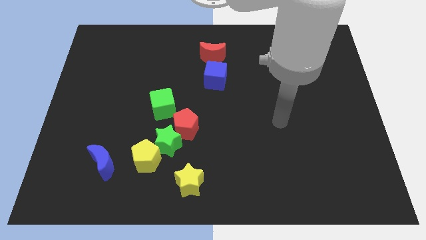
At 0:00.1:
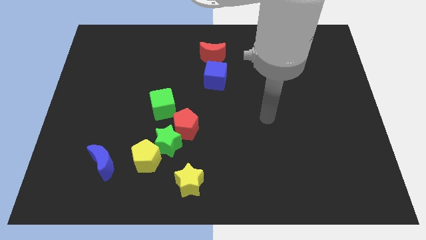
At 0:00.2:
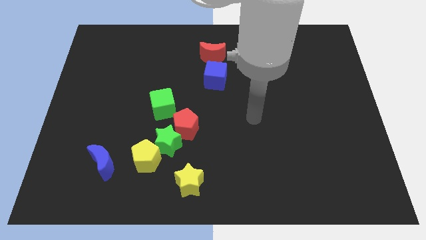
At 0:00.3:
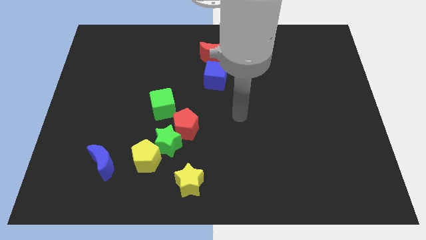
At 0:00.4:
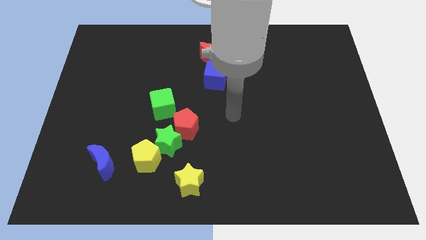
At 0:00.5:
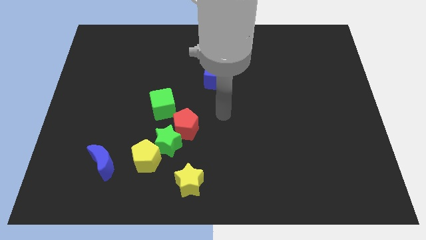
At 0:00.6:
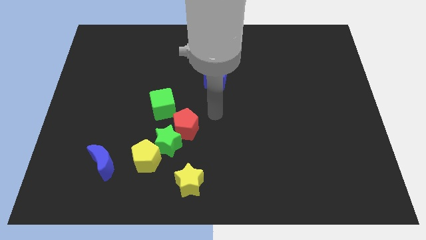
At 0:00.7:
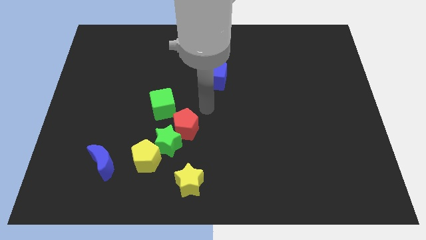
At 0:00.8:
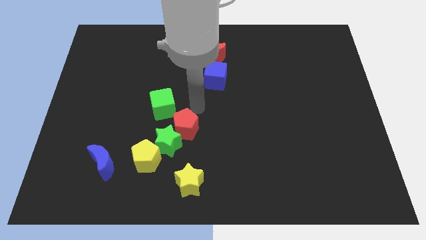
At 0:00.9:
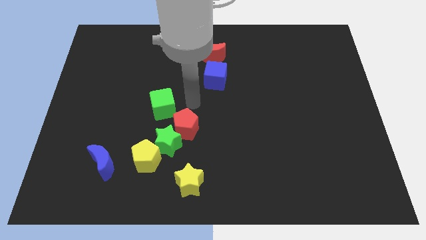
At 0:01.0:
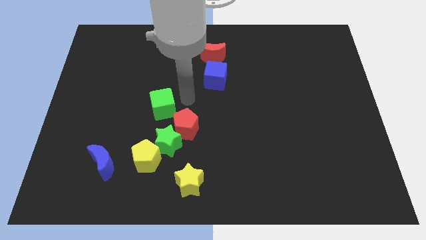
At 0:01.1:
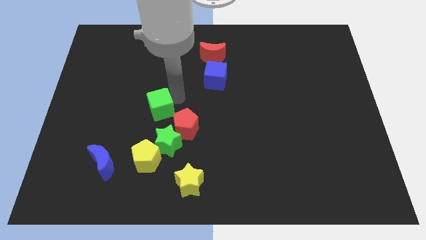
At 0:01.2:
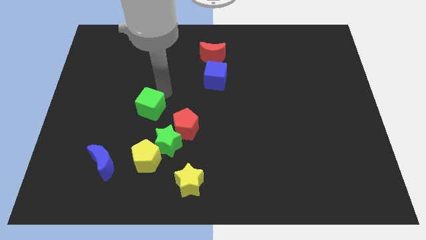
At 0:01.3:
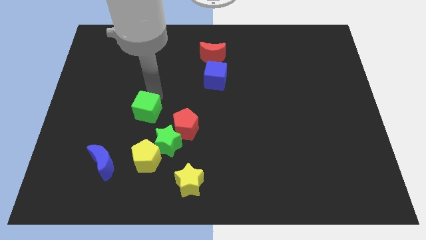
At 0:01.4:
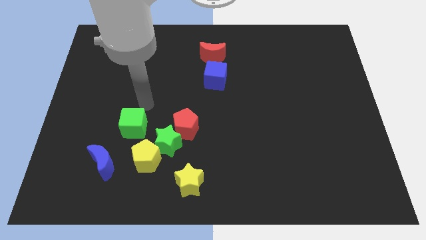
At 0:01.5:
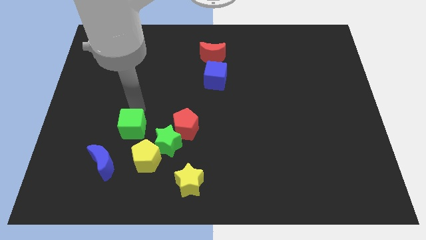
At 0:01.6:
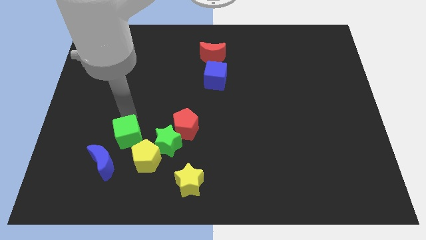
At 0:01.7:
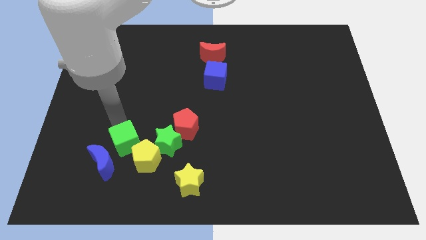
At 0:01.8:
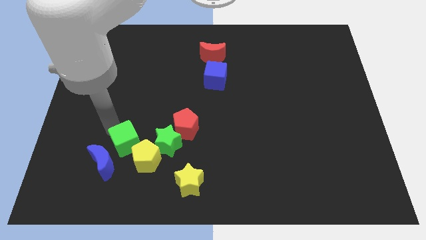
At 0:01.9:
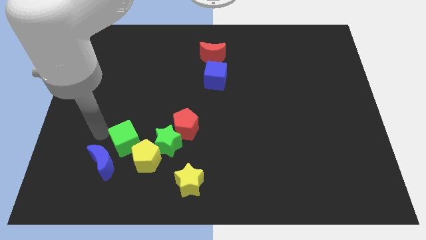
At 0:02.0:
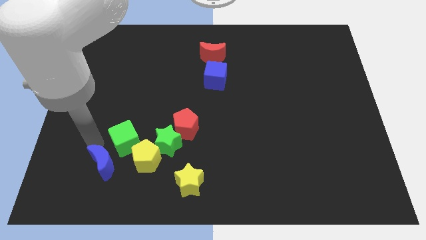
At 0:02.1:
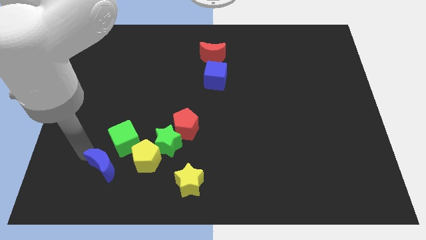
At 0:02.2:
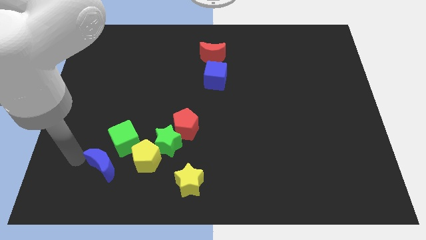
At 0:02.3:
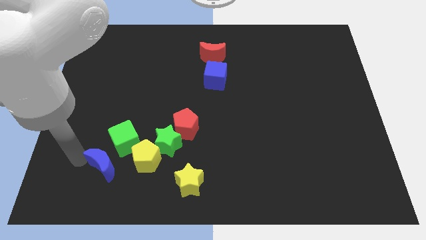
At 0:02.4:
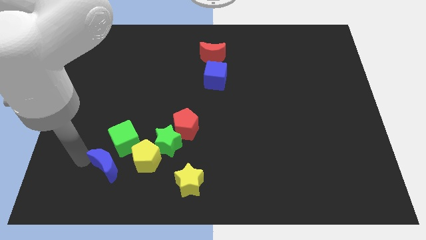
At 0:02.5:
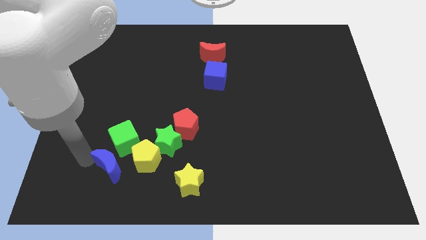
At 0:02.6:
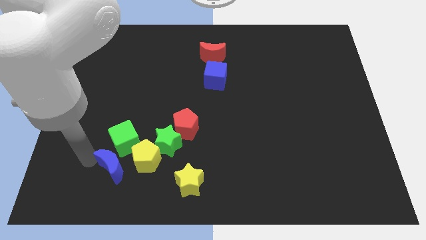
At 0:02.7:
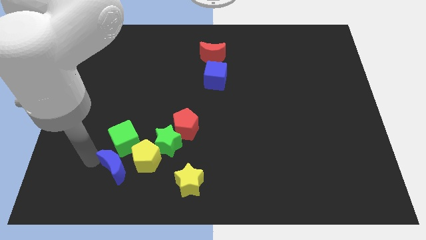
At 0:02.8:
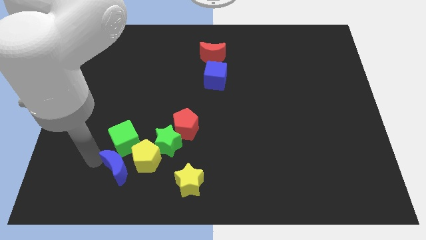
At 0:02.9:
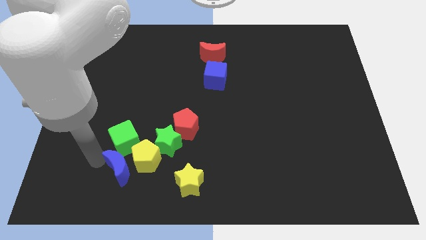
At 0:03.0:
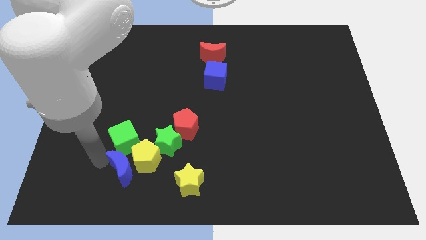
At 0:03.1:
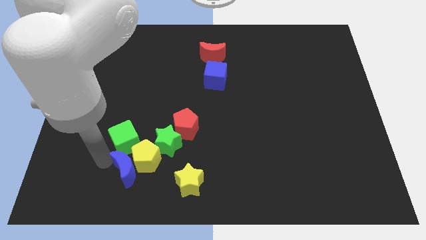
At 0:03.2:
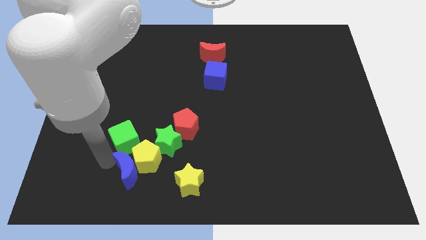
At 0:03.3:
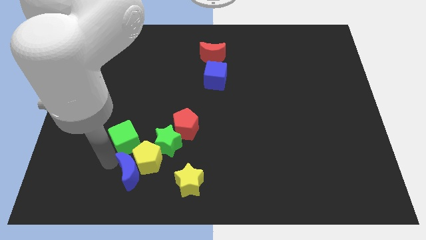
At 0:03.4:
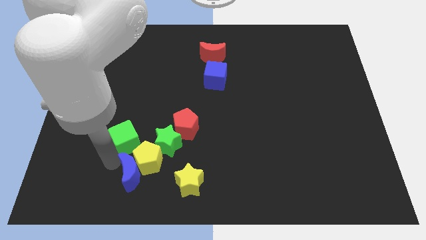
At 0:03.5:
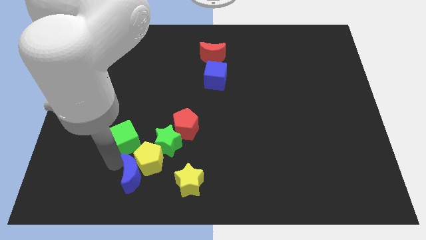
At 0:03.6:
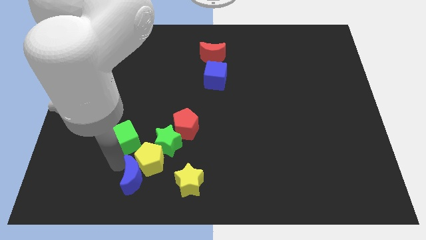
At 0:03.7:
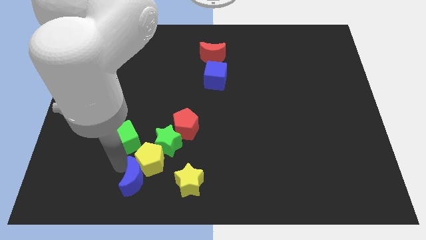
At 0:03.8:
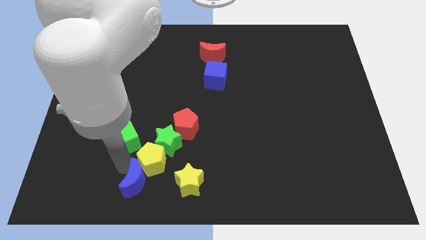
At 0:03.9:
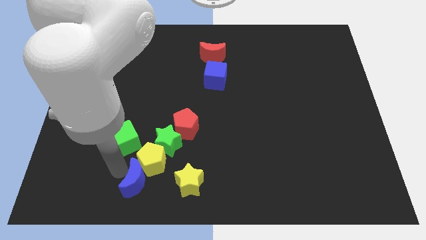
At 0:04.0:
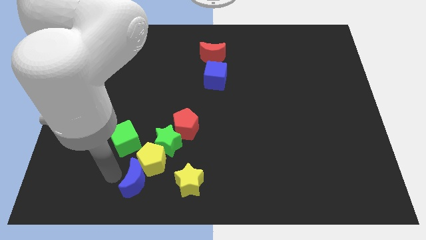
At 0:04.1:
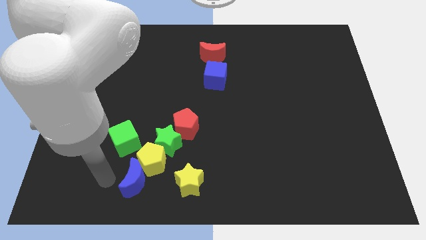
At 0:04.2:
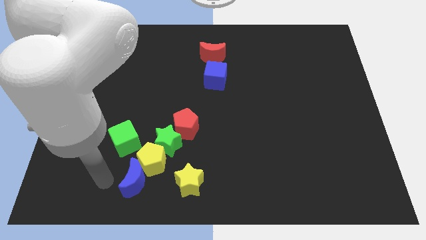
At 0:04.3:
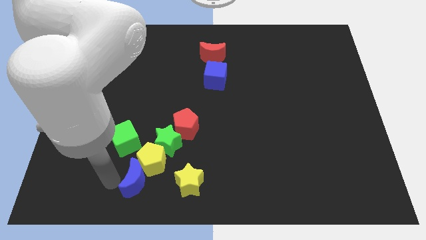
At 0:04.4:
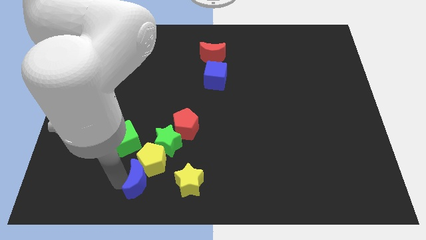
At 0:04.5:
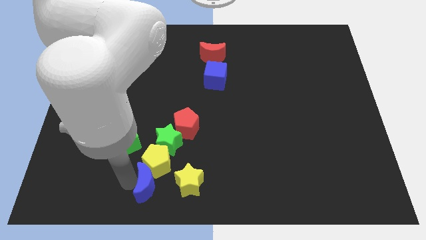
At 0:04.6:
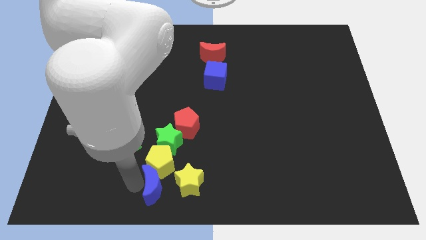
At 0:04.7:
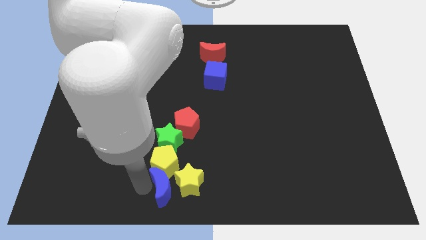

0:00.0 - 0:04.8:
slide the blue moon next to the yellow star

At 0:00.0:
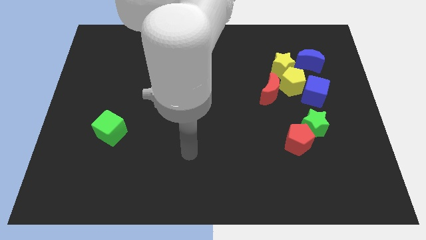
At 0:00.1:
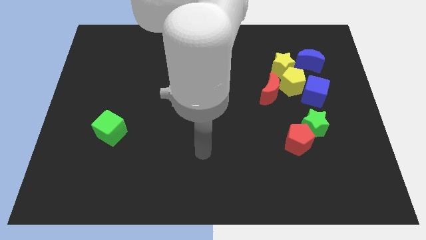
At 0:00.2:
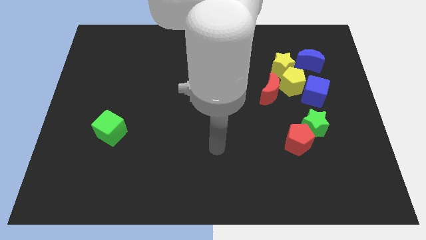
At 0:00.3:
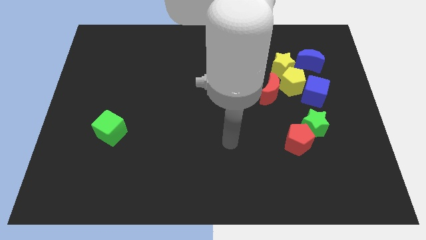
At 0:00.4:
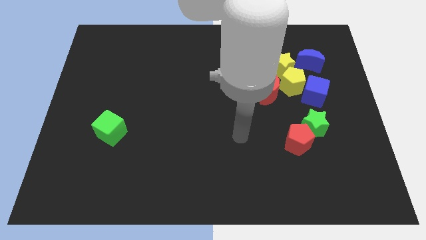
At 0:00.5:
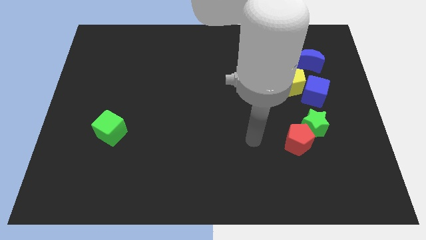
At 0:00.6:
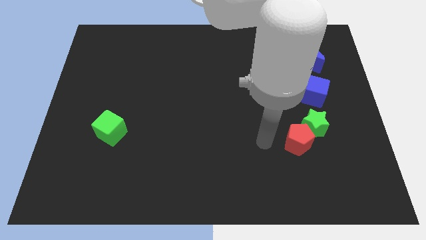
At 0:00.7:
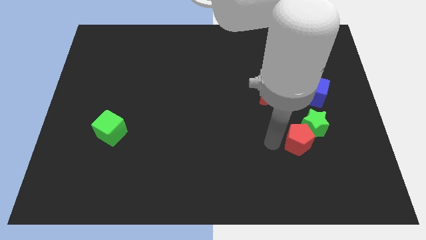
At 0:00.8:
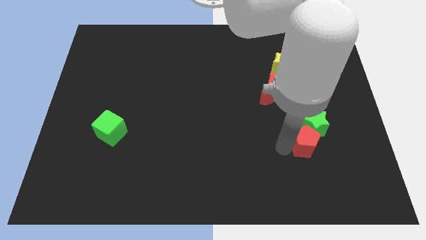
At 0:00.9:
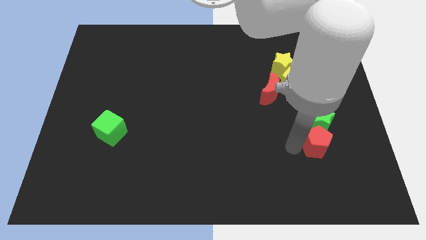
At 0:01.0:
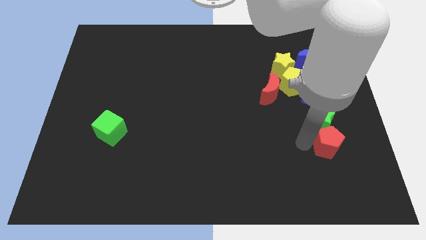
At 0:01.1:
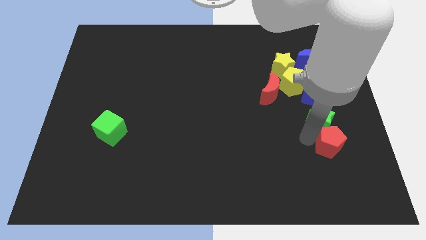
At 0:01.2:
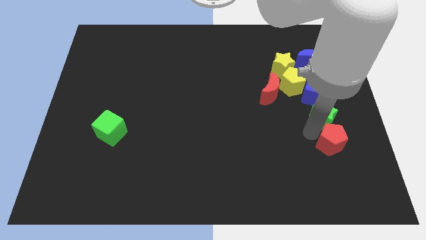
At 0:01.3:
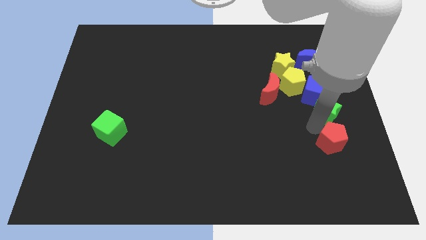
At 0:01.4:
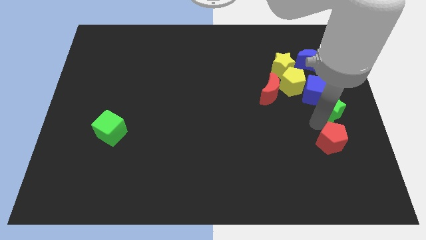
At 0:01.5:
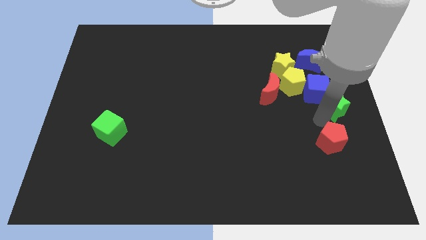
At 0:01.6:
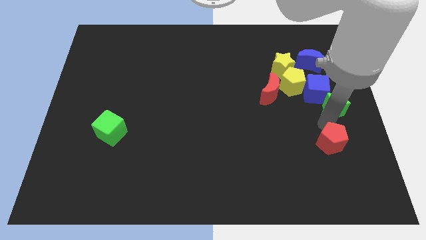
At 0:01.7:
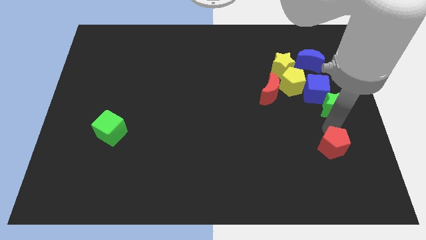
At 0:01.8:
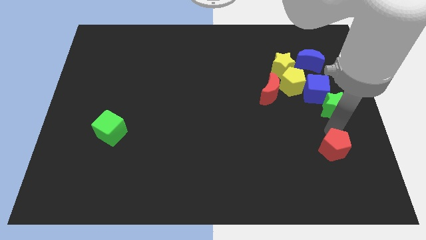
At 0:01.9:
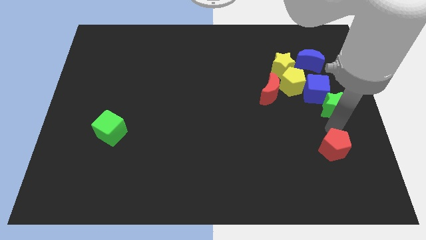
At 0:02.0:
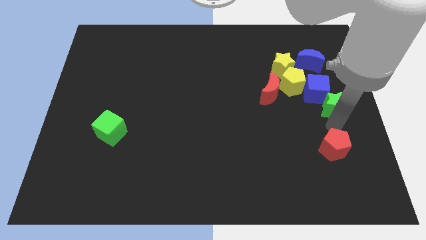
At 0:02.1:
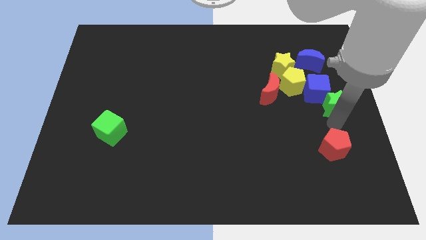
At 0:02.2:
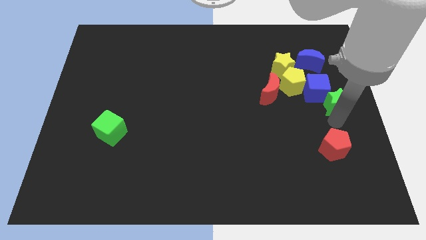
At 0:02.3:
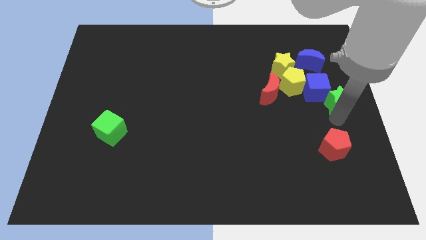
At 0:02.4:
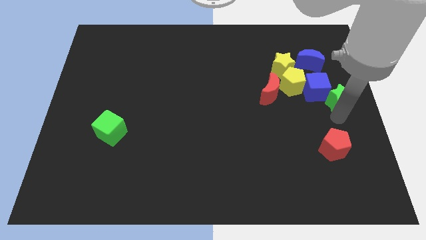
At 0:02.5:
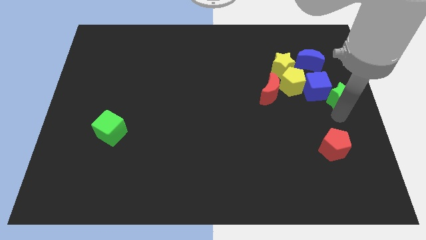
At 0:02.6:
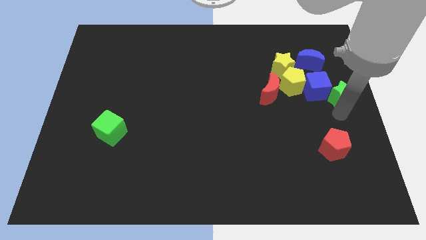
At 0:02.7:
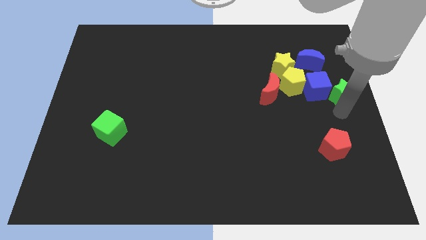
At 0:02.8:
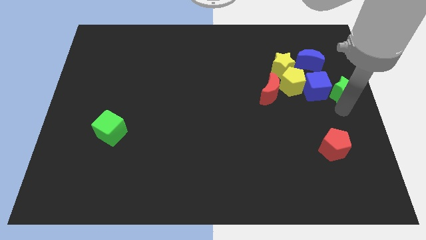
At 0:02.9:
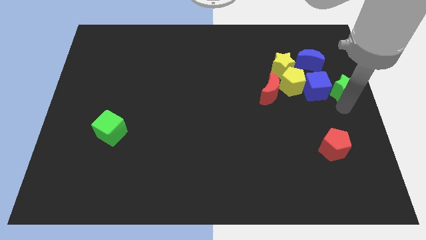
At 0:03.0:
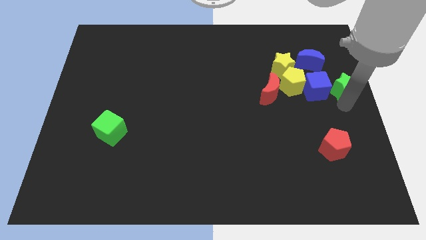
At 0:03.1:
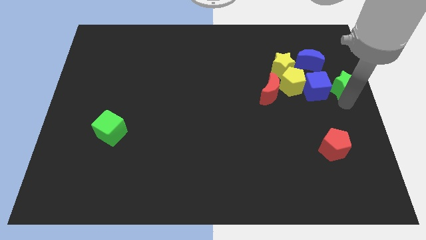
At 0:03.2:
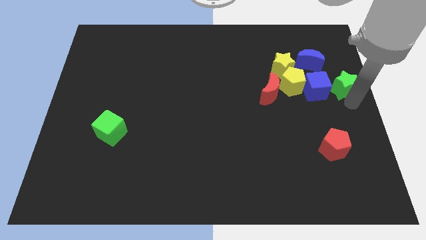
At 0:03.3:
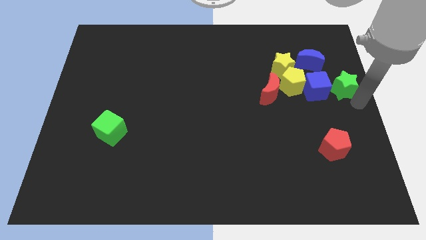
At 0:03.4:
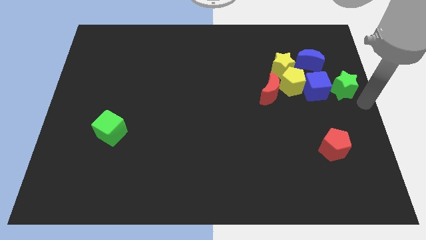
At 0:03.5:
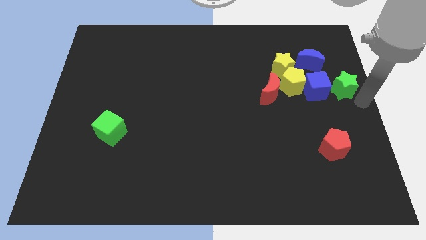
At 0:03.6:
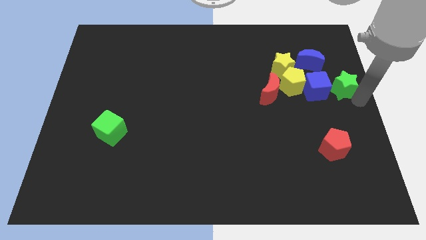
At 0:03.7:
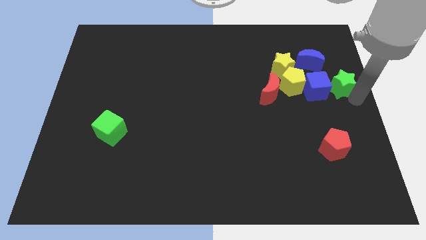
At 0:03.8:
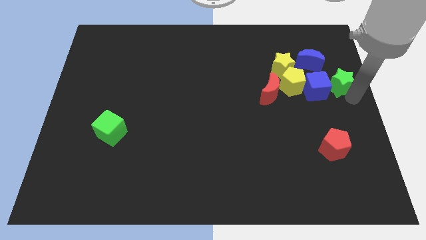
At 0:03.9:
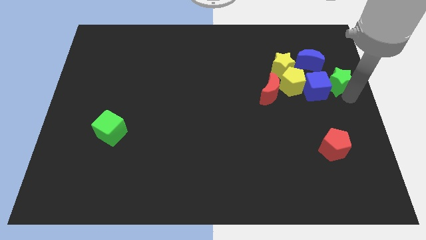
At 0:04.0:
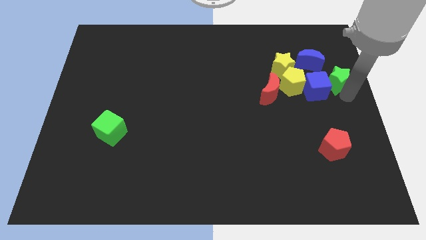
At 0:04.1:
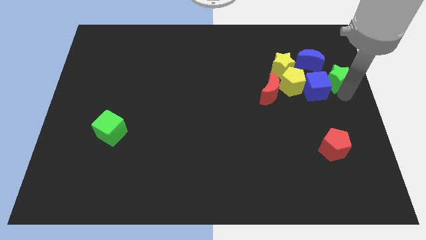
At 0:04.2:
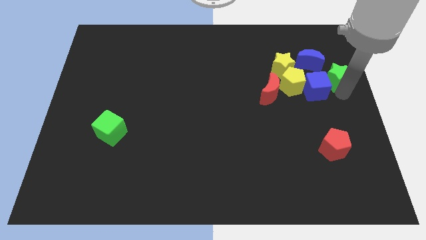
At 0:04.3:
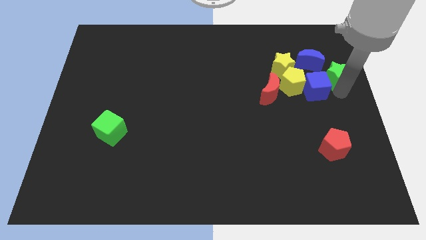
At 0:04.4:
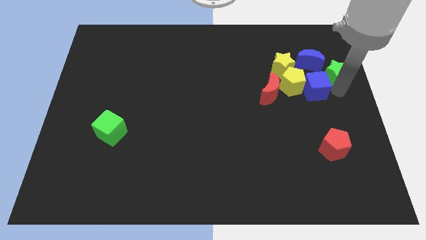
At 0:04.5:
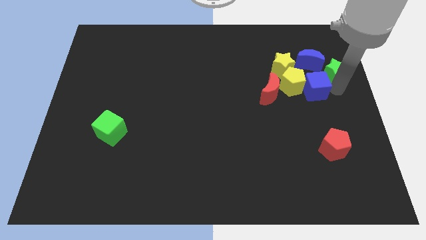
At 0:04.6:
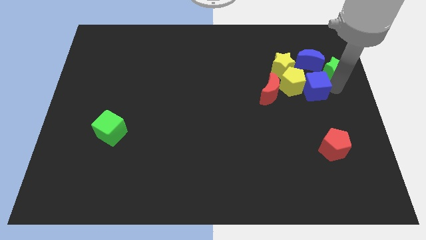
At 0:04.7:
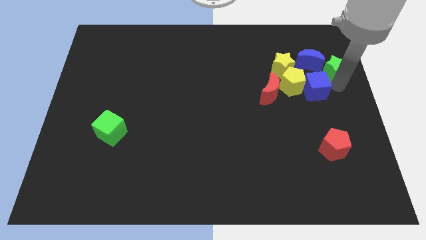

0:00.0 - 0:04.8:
move the green star next to the blue moon
